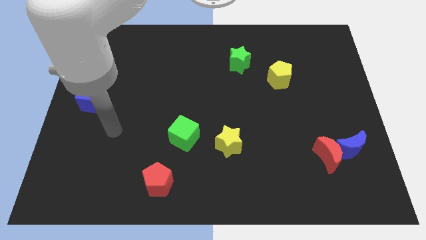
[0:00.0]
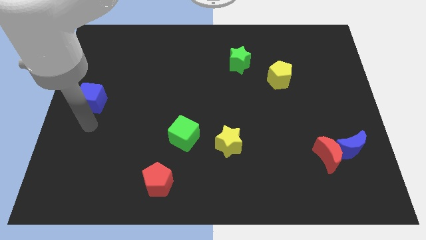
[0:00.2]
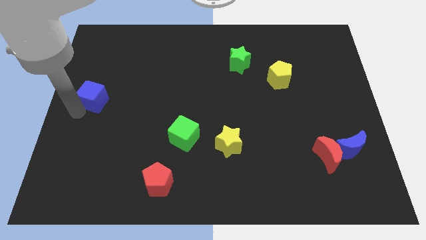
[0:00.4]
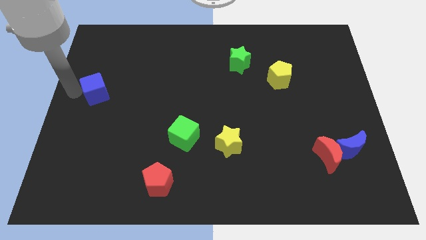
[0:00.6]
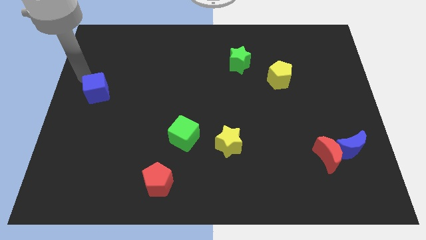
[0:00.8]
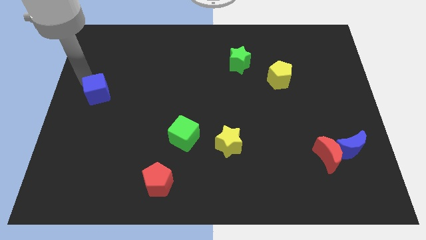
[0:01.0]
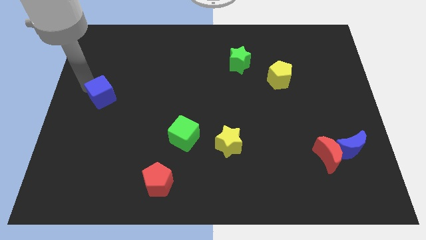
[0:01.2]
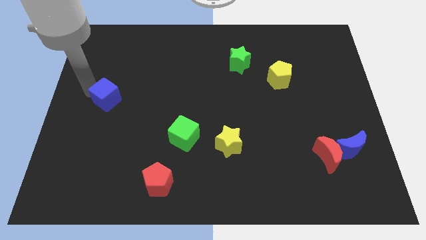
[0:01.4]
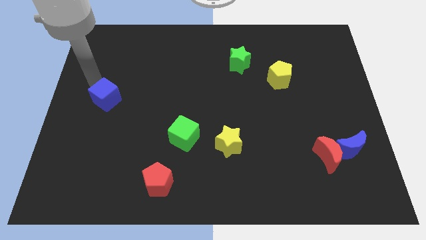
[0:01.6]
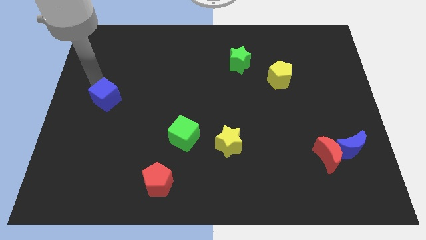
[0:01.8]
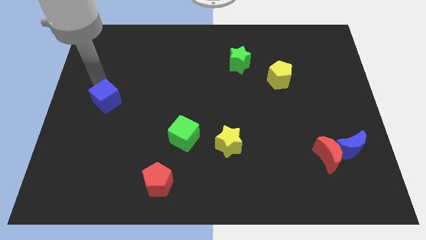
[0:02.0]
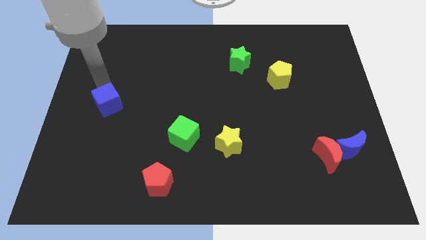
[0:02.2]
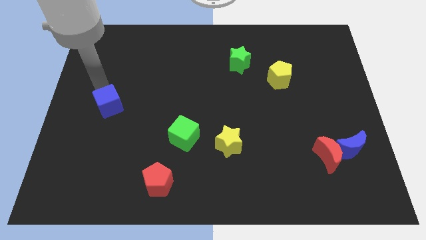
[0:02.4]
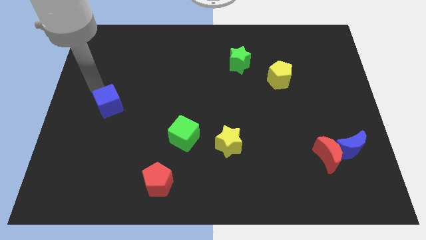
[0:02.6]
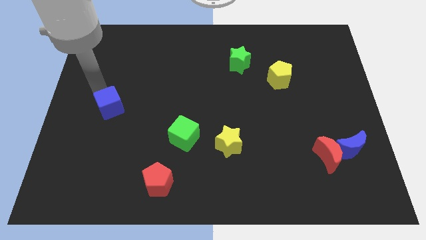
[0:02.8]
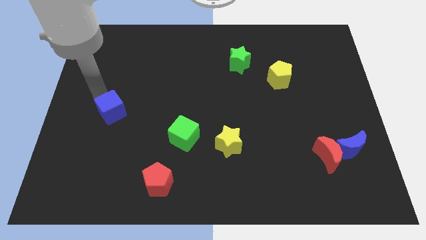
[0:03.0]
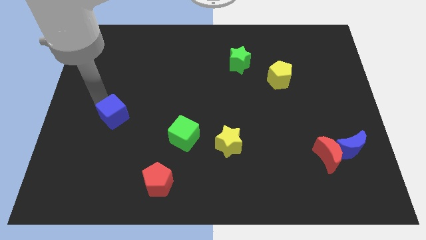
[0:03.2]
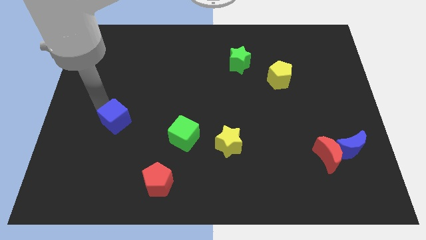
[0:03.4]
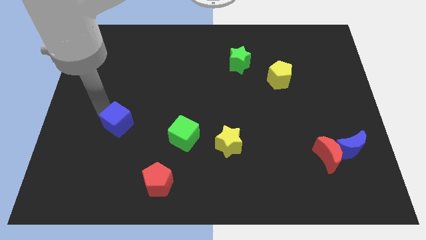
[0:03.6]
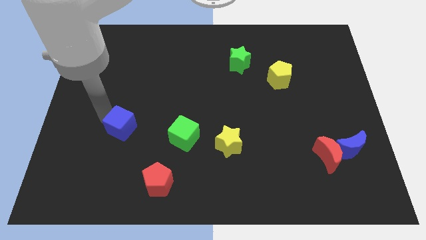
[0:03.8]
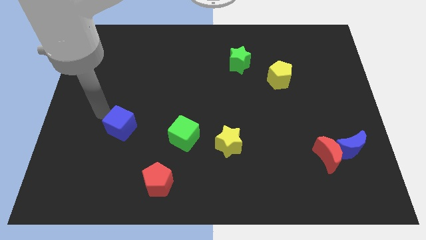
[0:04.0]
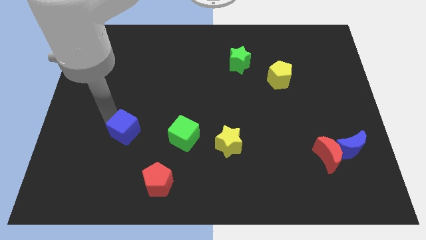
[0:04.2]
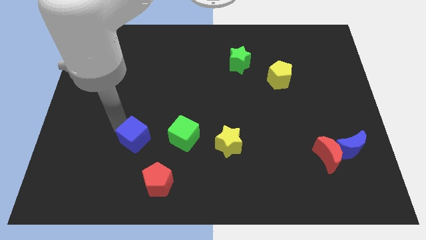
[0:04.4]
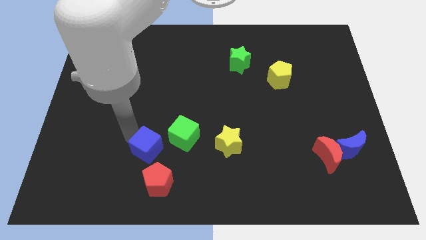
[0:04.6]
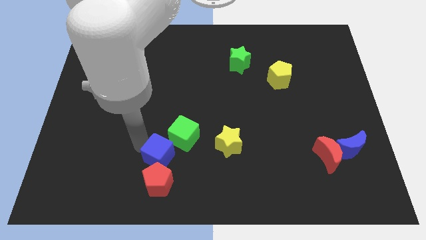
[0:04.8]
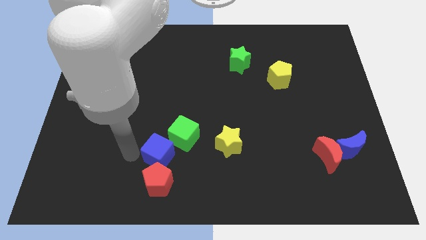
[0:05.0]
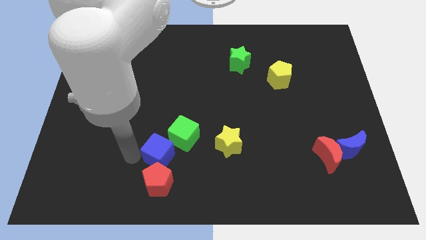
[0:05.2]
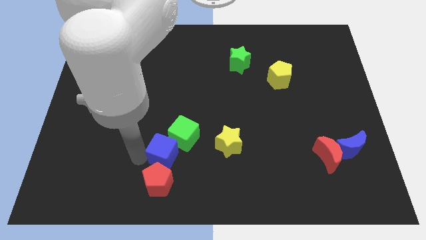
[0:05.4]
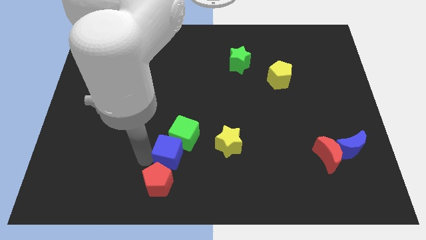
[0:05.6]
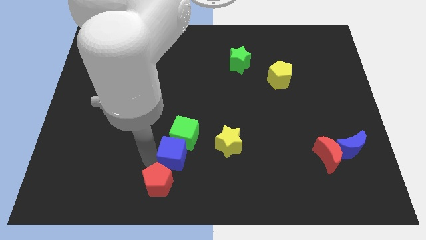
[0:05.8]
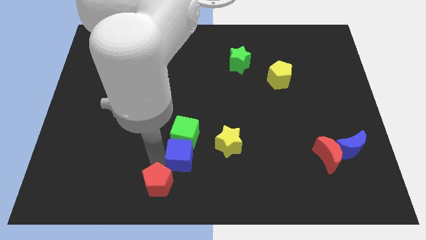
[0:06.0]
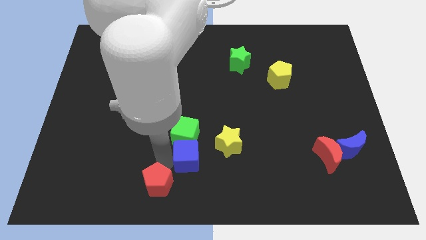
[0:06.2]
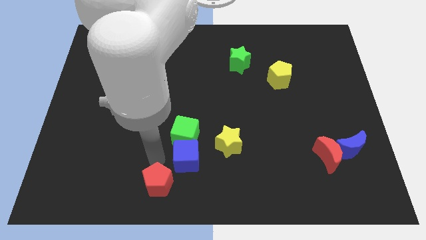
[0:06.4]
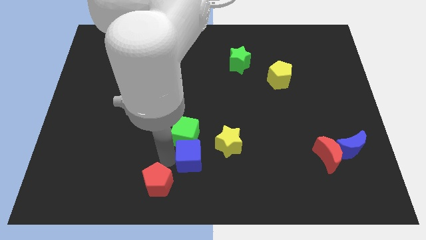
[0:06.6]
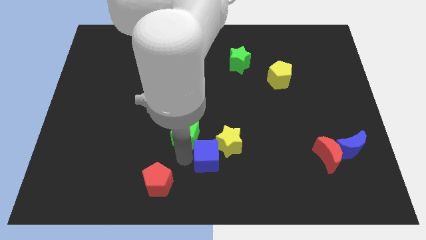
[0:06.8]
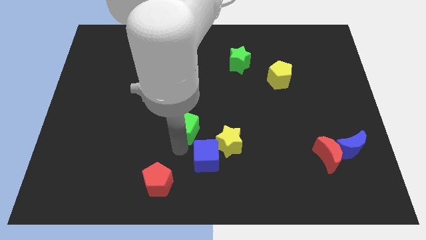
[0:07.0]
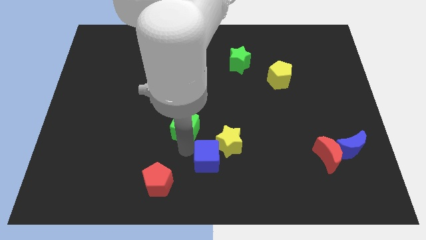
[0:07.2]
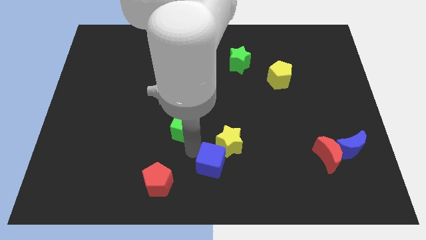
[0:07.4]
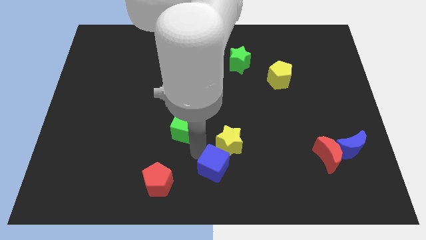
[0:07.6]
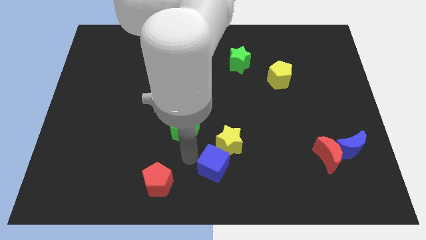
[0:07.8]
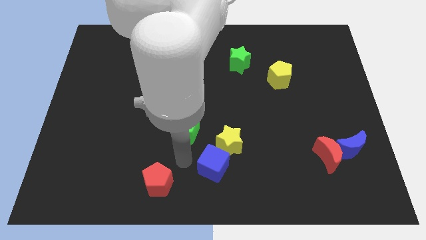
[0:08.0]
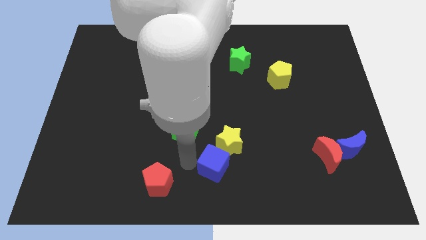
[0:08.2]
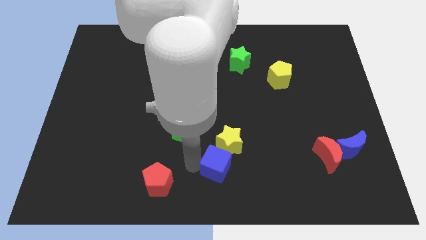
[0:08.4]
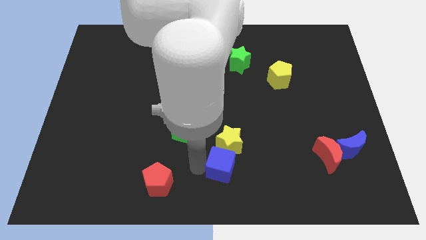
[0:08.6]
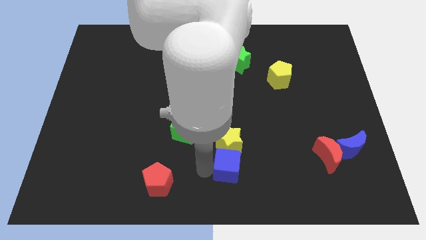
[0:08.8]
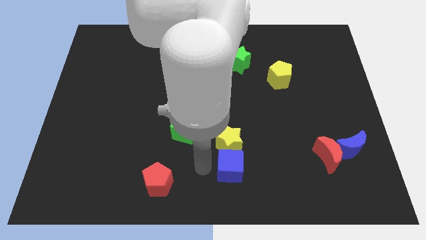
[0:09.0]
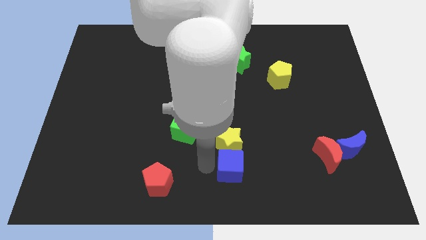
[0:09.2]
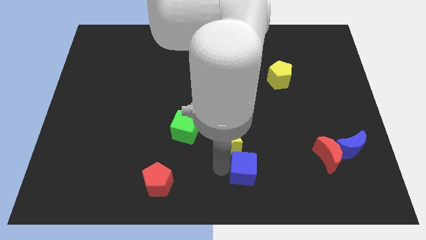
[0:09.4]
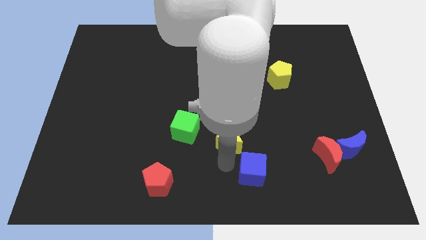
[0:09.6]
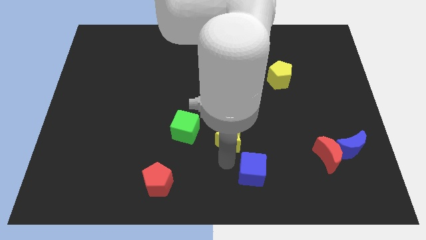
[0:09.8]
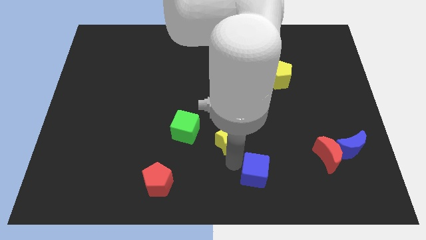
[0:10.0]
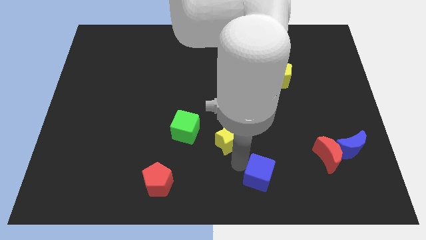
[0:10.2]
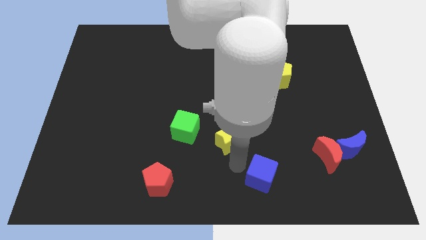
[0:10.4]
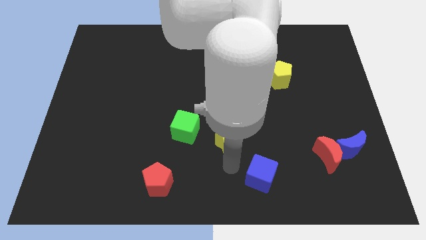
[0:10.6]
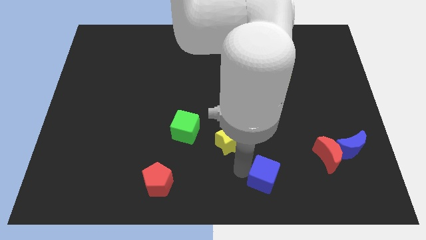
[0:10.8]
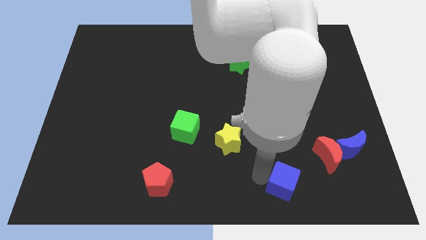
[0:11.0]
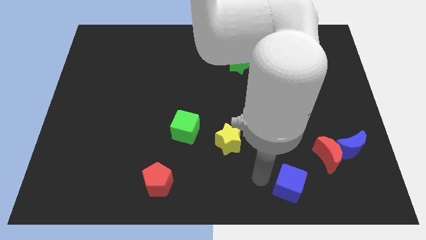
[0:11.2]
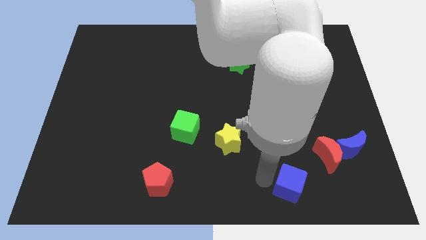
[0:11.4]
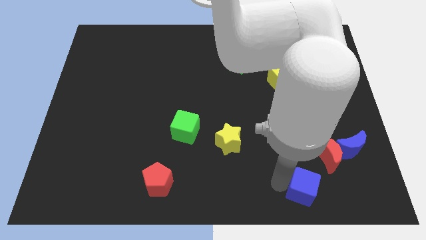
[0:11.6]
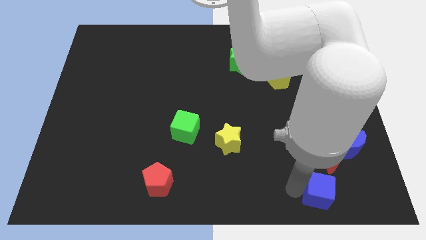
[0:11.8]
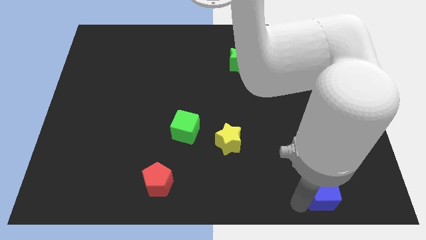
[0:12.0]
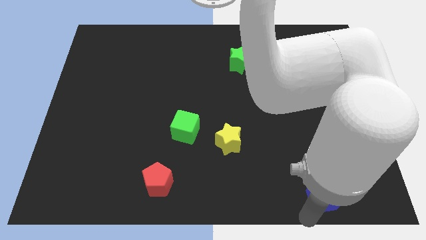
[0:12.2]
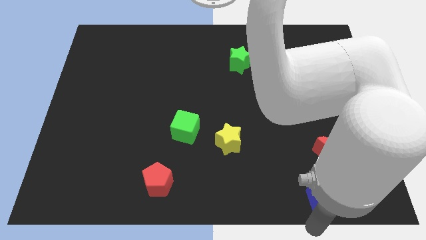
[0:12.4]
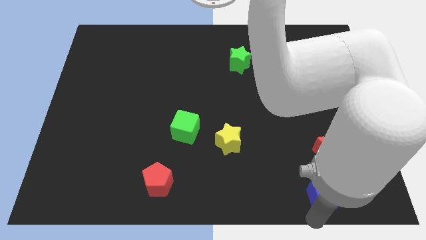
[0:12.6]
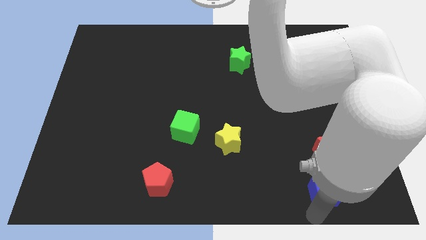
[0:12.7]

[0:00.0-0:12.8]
push the blue cube to the bottom left side of the blue moon
